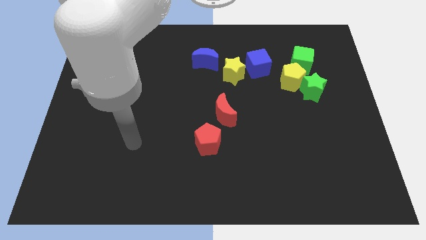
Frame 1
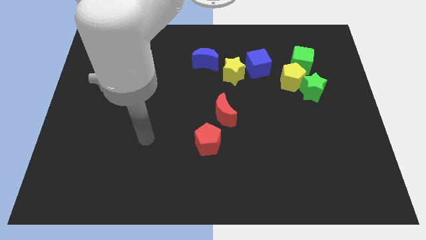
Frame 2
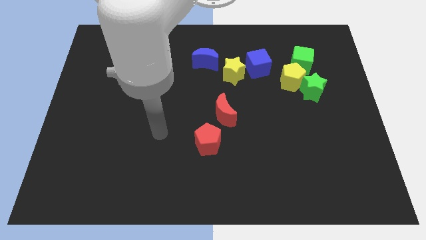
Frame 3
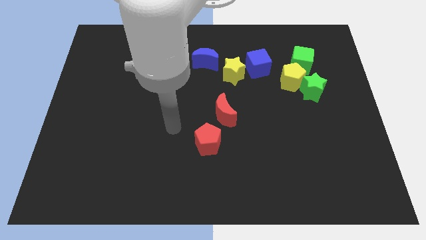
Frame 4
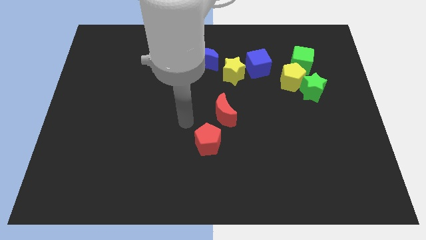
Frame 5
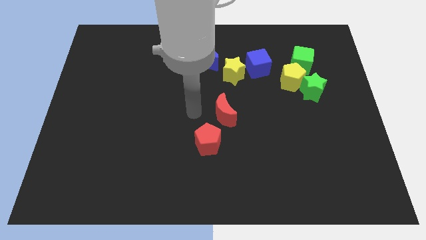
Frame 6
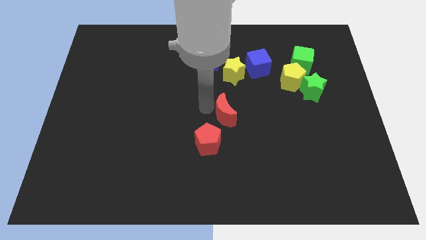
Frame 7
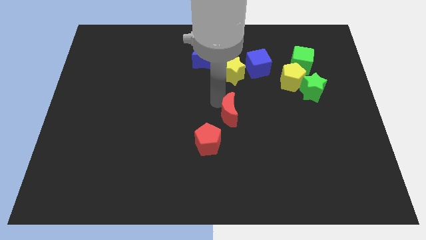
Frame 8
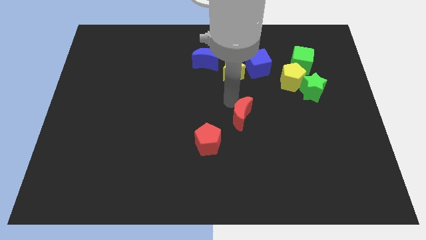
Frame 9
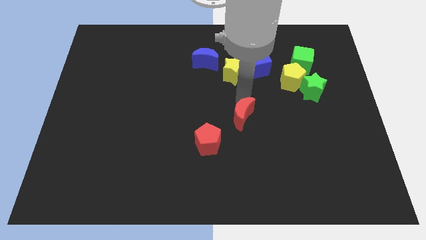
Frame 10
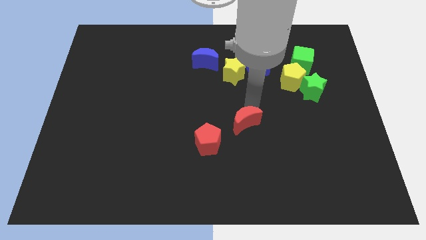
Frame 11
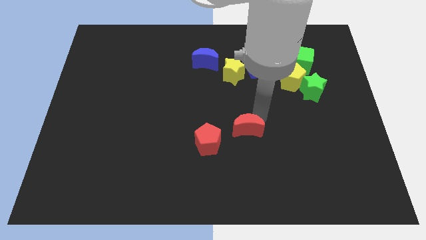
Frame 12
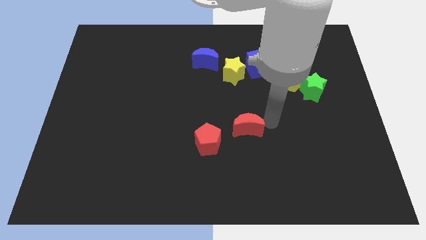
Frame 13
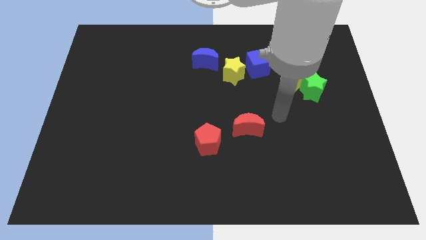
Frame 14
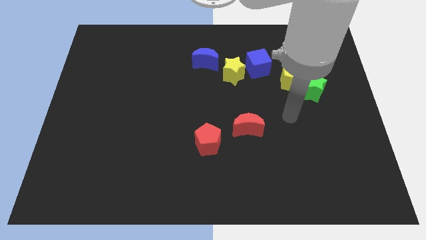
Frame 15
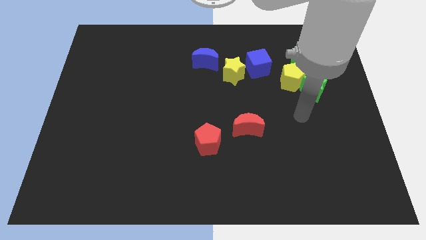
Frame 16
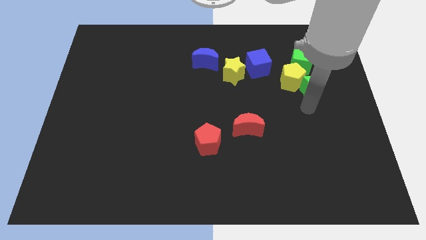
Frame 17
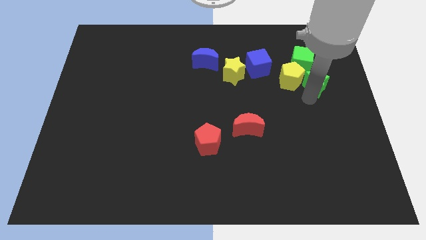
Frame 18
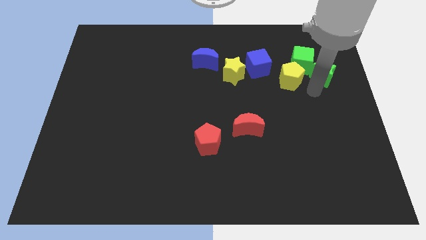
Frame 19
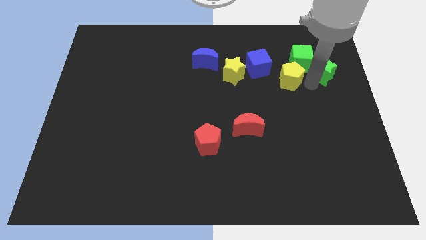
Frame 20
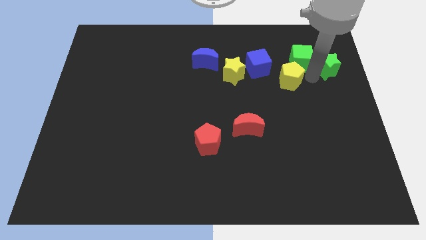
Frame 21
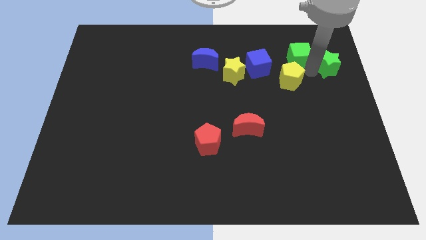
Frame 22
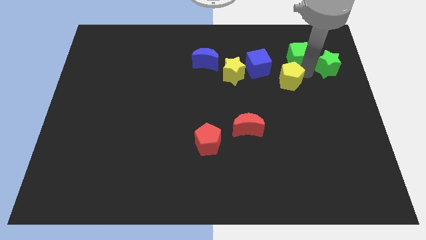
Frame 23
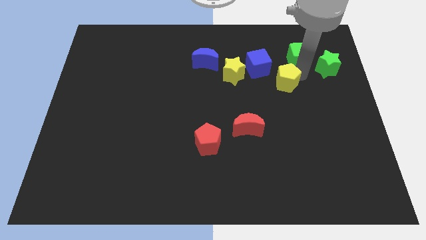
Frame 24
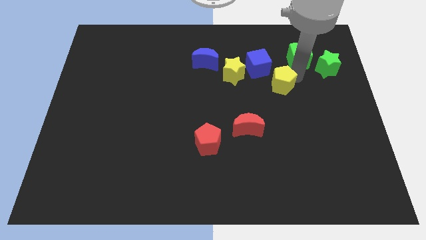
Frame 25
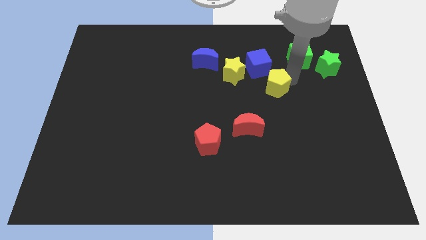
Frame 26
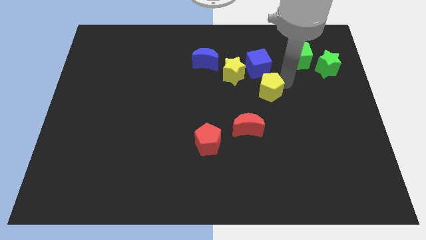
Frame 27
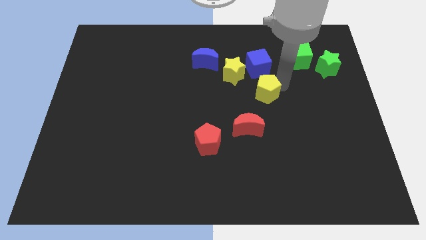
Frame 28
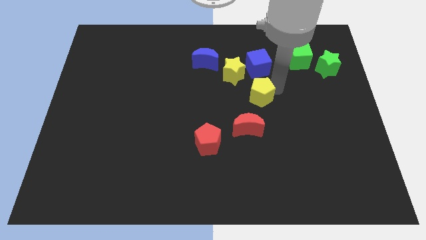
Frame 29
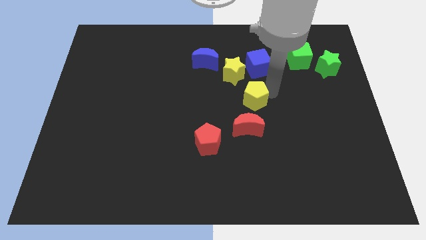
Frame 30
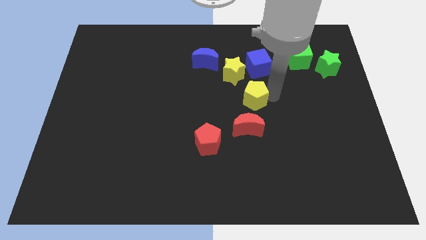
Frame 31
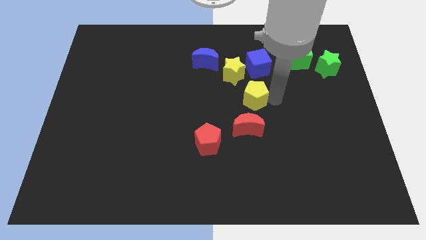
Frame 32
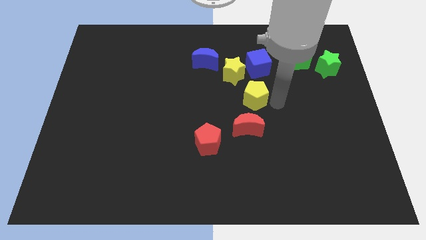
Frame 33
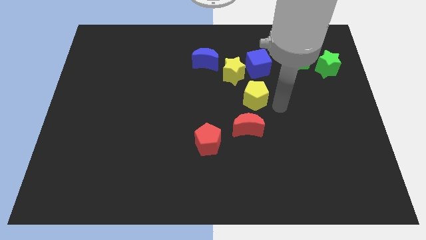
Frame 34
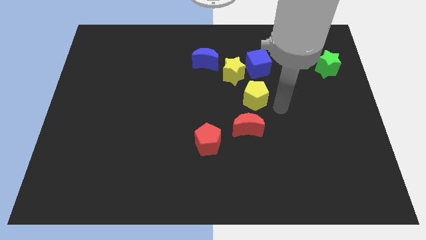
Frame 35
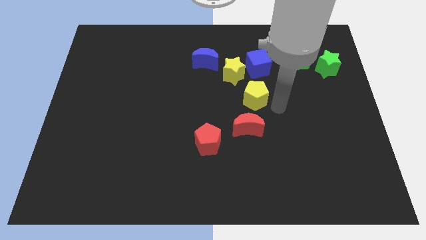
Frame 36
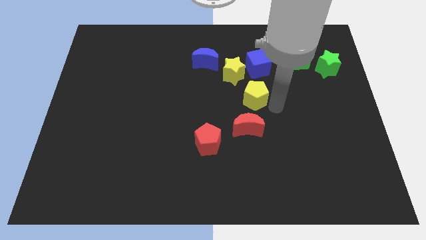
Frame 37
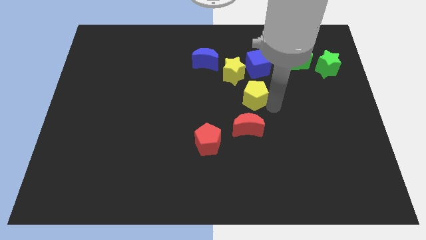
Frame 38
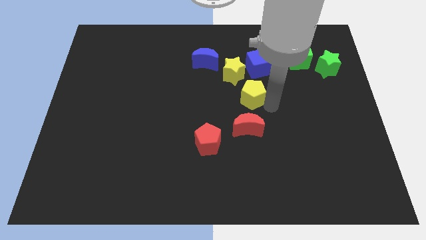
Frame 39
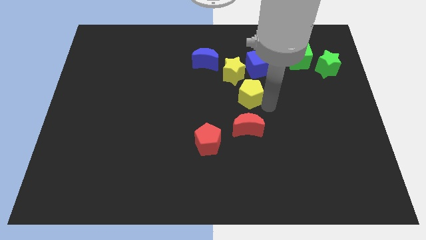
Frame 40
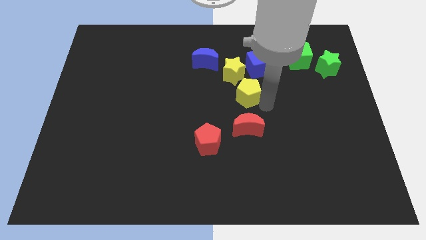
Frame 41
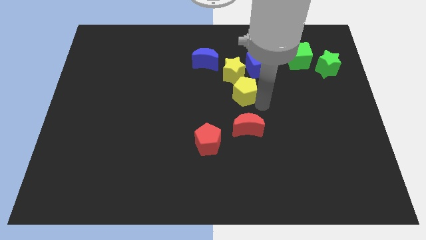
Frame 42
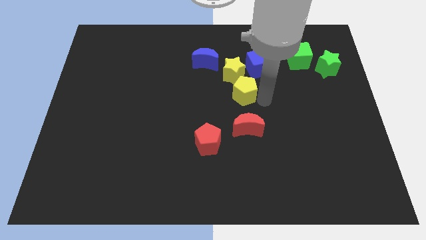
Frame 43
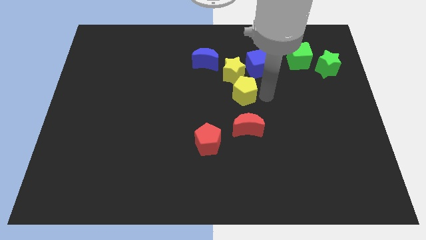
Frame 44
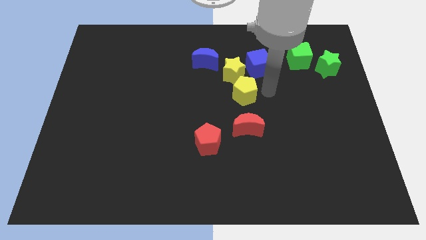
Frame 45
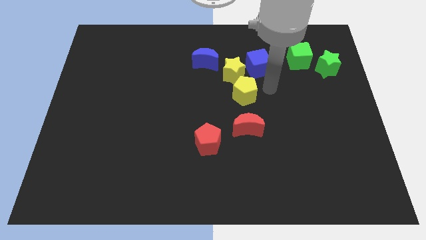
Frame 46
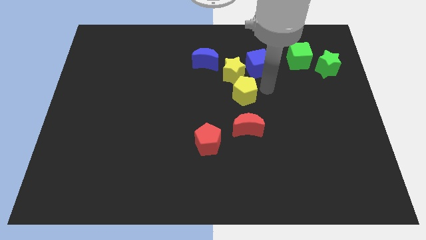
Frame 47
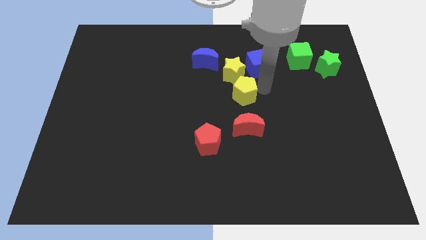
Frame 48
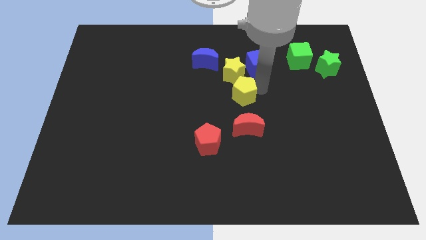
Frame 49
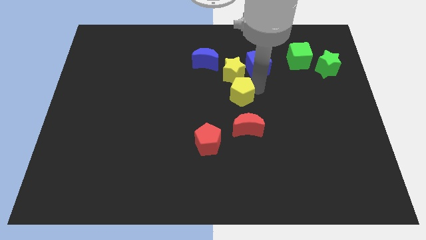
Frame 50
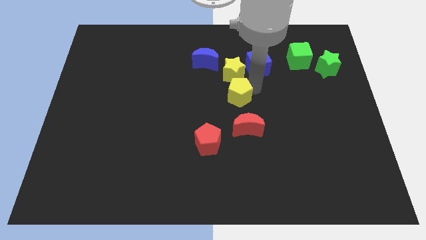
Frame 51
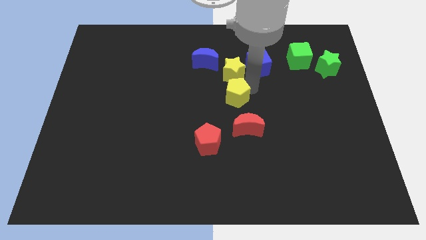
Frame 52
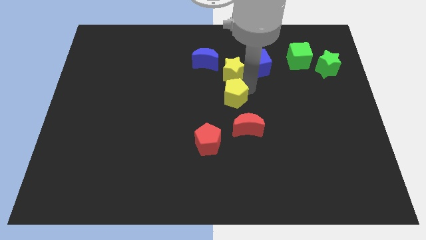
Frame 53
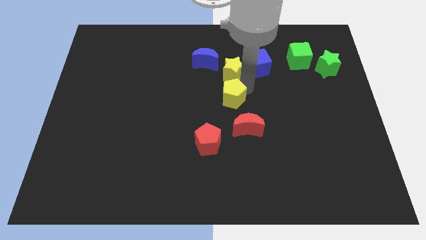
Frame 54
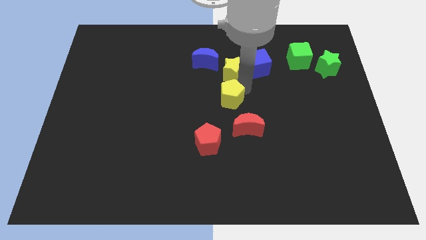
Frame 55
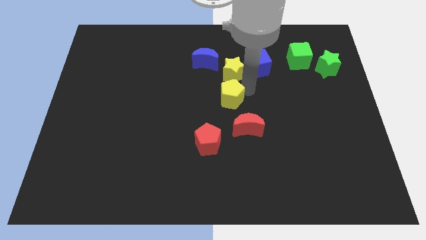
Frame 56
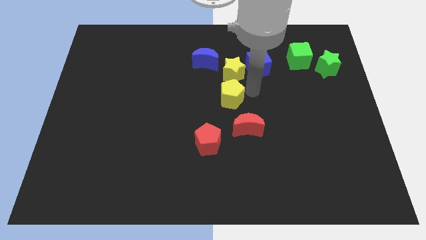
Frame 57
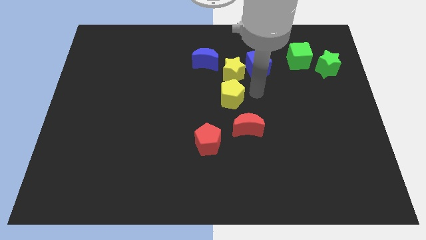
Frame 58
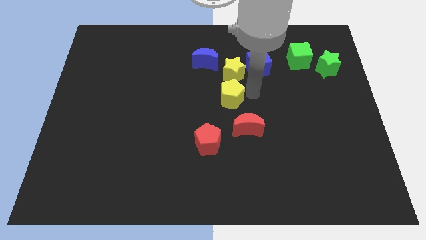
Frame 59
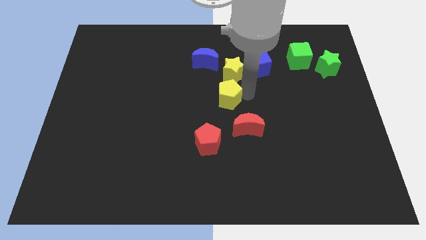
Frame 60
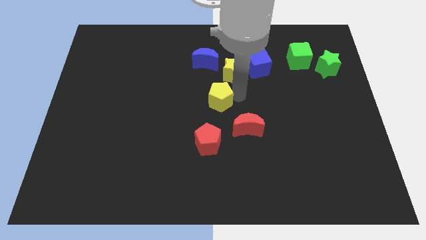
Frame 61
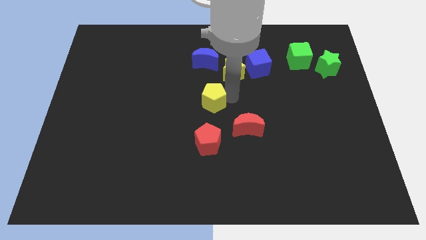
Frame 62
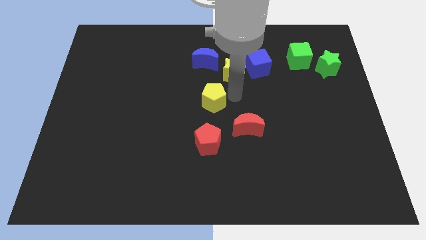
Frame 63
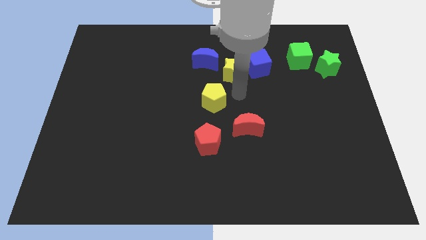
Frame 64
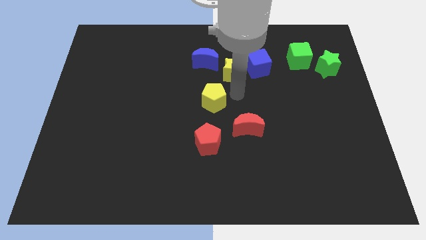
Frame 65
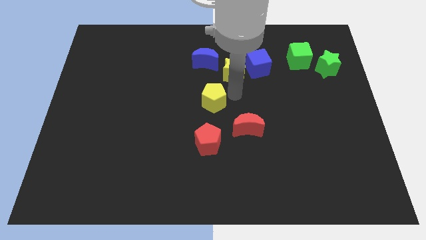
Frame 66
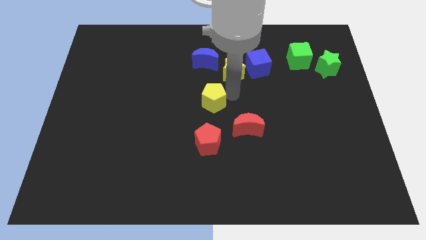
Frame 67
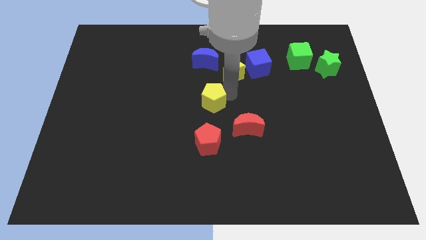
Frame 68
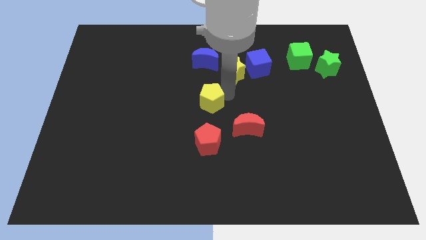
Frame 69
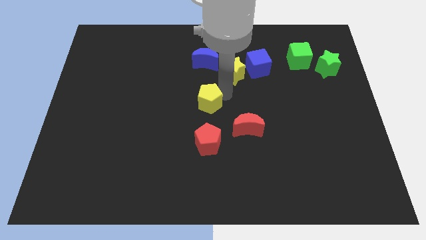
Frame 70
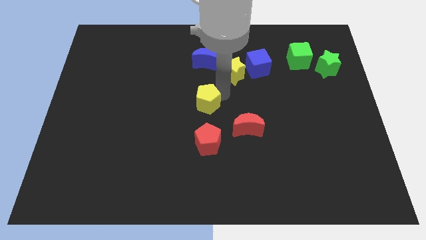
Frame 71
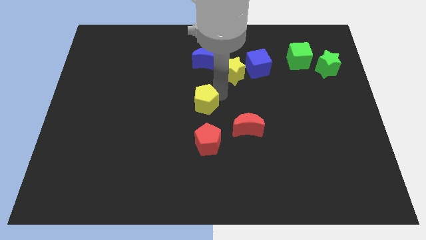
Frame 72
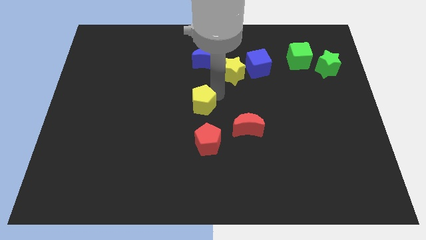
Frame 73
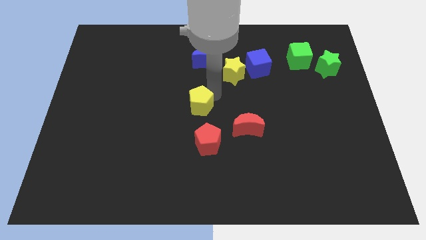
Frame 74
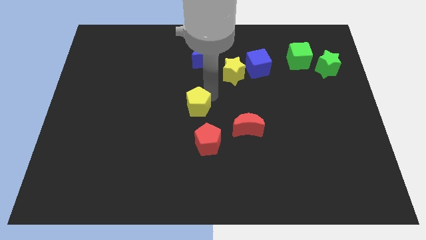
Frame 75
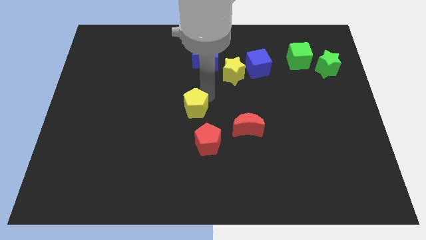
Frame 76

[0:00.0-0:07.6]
push the yellow pentagon to the top left side of the red pentagon
